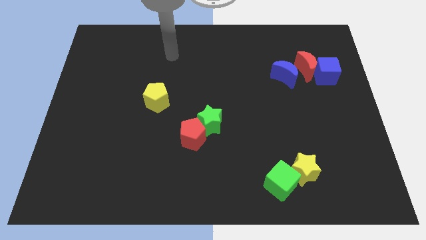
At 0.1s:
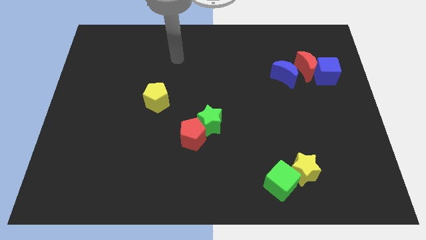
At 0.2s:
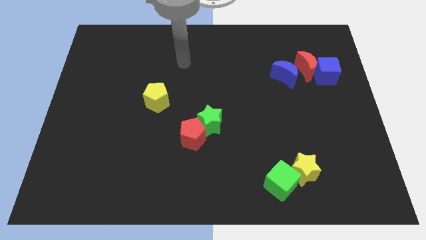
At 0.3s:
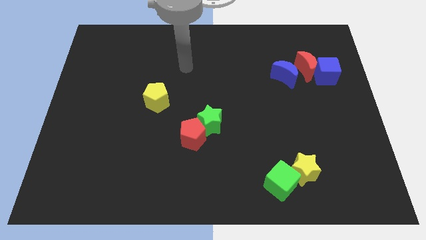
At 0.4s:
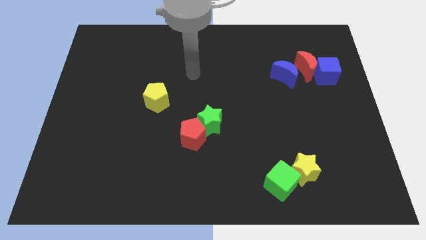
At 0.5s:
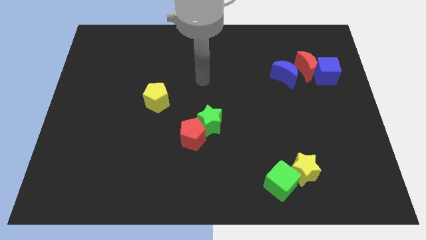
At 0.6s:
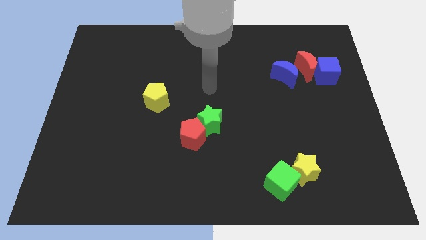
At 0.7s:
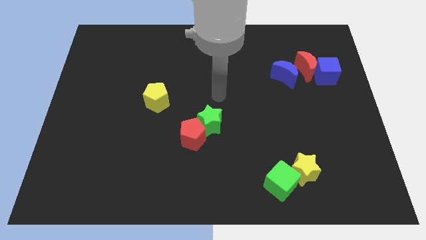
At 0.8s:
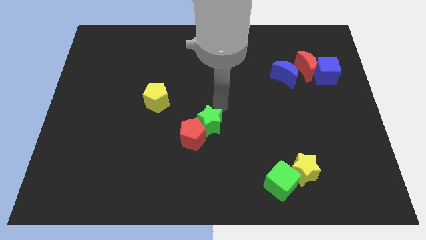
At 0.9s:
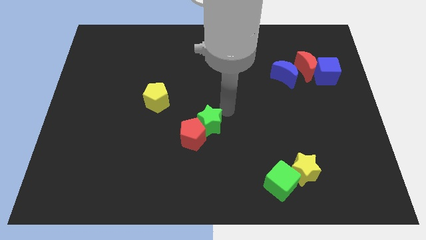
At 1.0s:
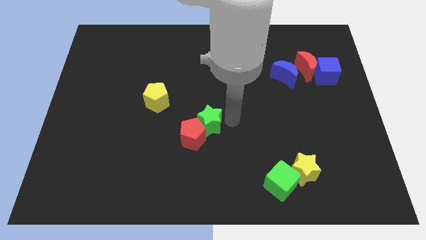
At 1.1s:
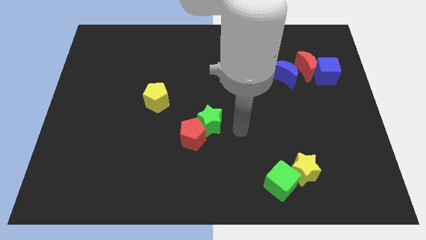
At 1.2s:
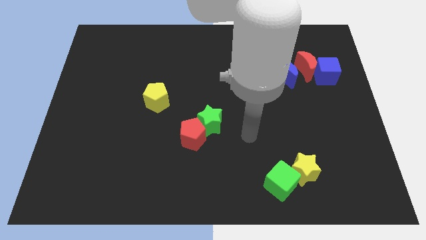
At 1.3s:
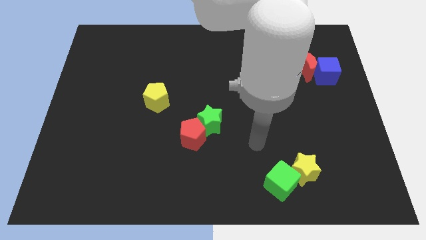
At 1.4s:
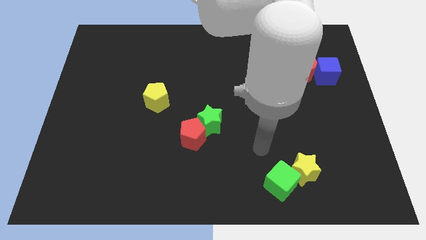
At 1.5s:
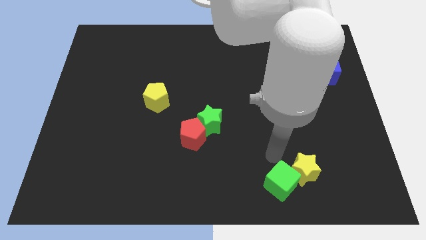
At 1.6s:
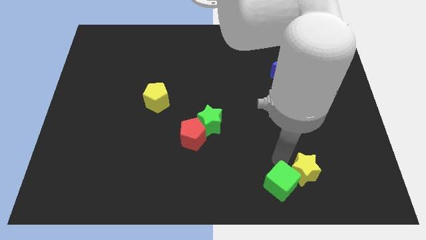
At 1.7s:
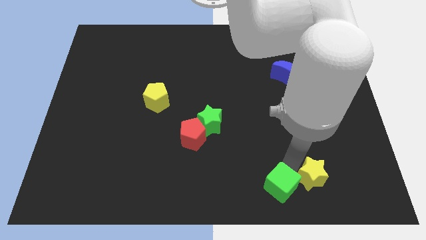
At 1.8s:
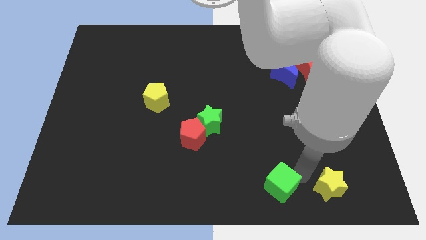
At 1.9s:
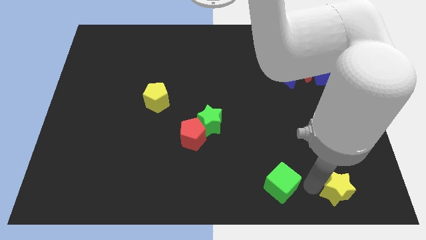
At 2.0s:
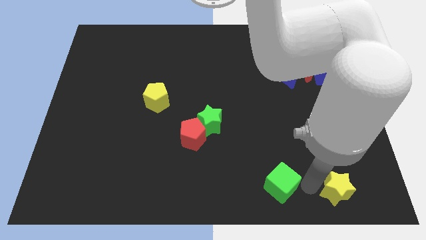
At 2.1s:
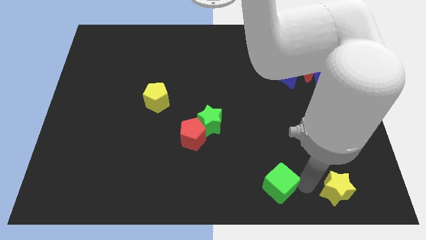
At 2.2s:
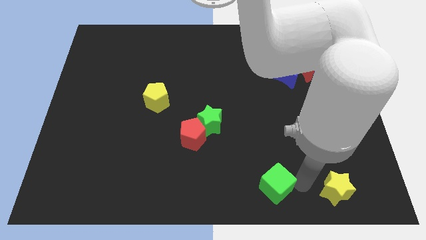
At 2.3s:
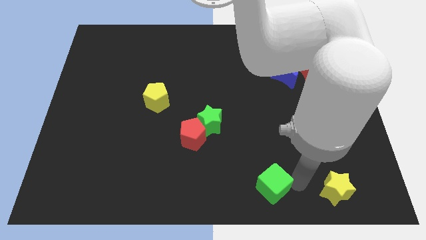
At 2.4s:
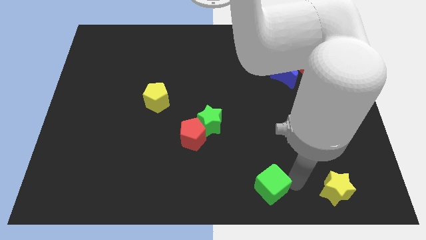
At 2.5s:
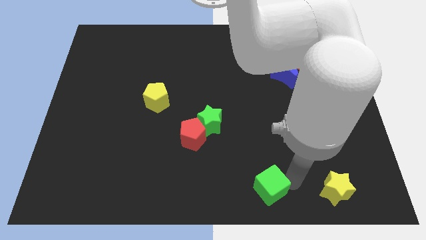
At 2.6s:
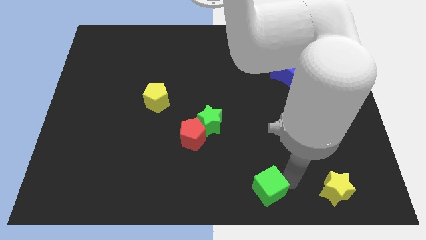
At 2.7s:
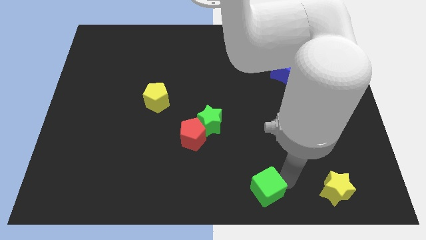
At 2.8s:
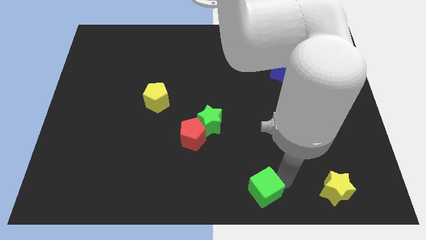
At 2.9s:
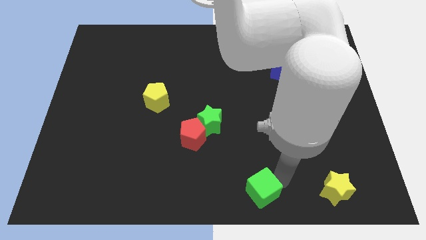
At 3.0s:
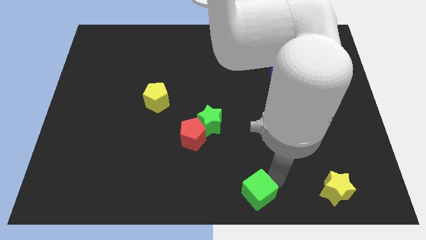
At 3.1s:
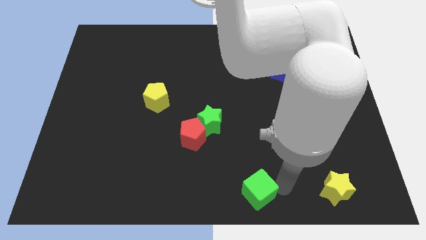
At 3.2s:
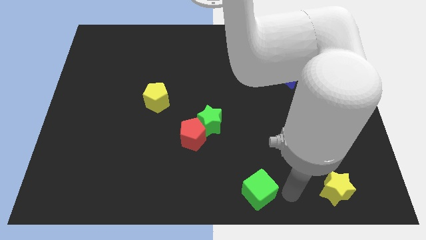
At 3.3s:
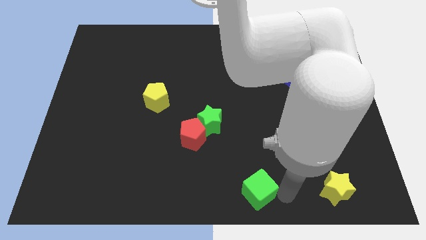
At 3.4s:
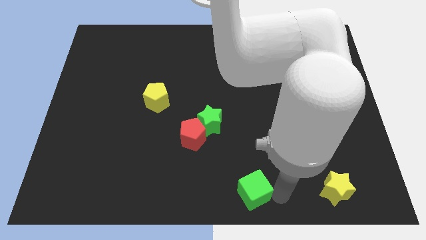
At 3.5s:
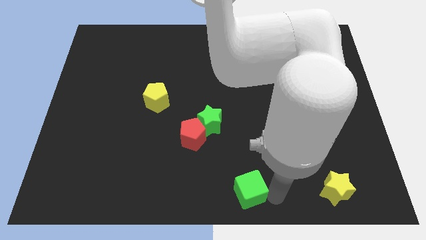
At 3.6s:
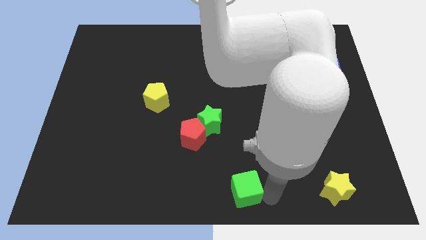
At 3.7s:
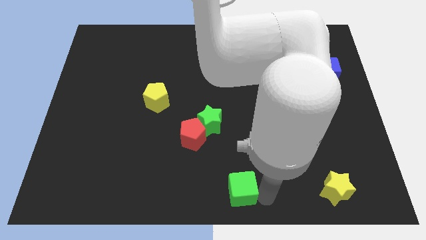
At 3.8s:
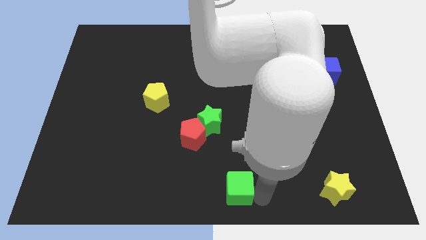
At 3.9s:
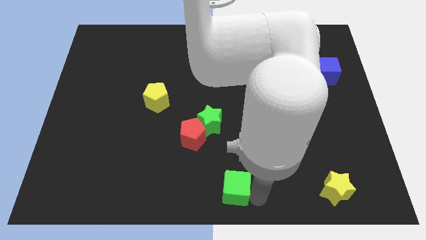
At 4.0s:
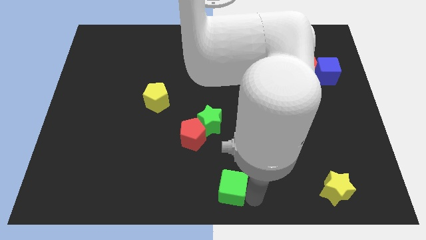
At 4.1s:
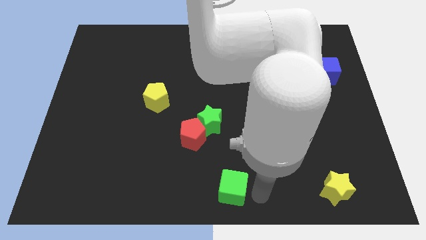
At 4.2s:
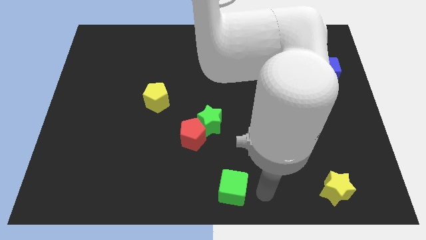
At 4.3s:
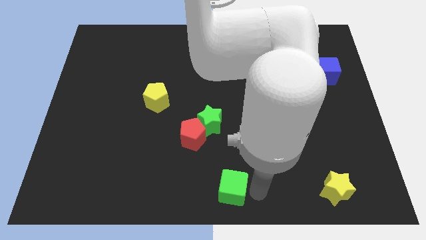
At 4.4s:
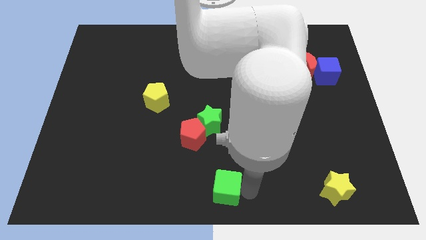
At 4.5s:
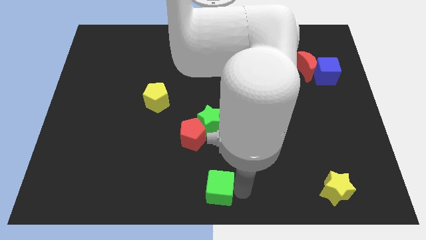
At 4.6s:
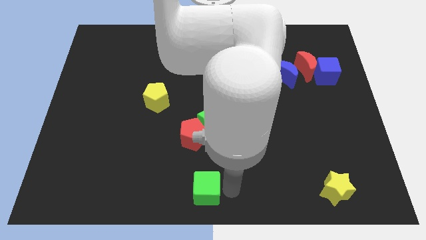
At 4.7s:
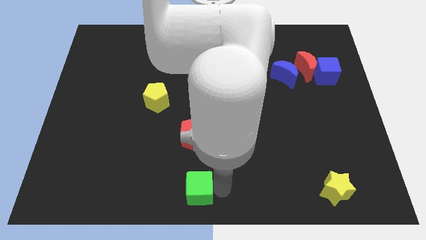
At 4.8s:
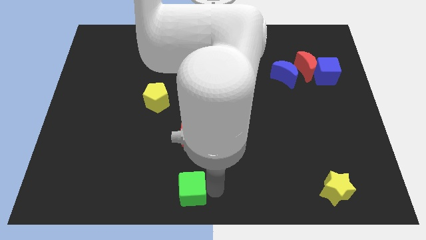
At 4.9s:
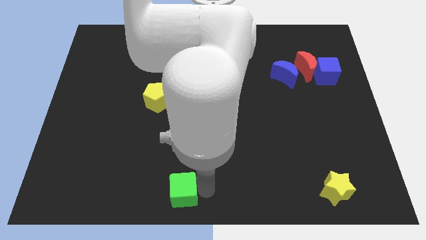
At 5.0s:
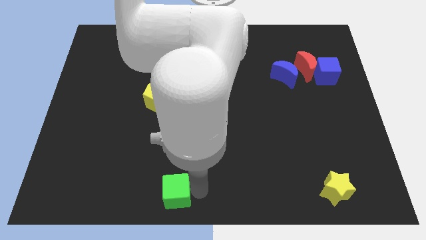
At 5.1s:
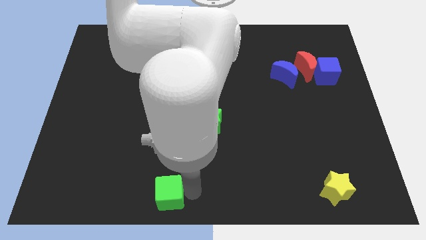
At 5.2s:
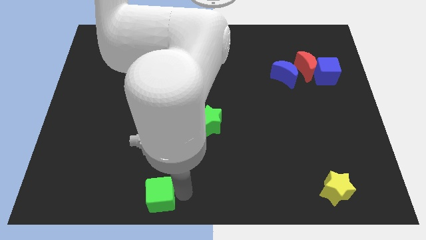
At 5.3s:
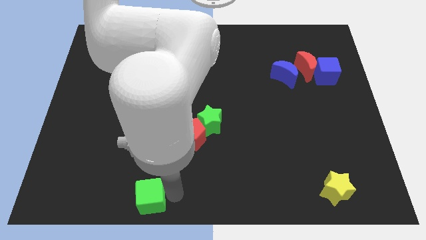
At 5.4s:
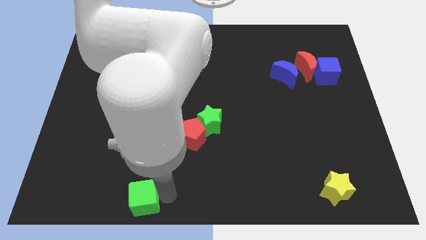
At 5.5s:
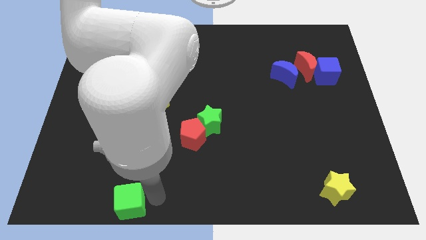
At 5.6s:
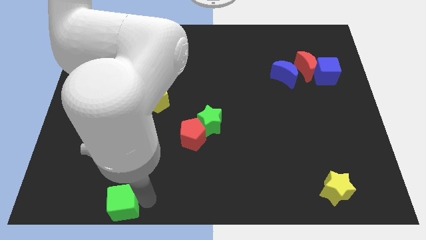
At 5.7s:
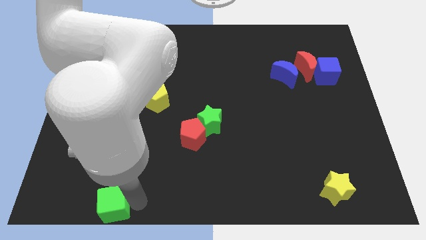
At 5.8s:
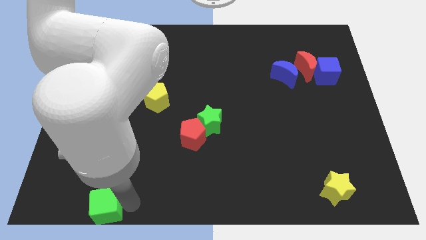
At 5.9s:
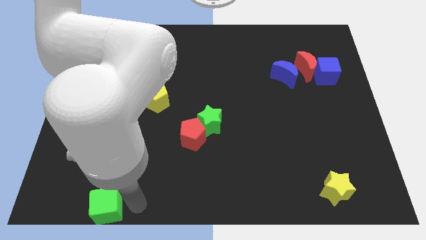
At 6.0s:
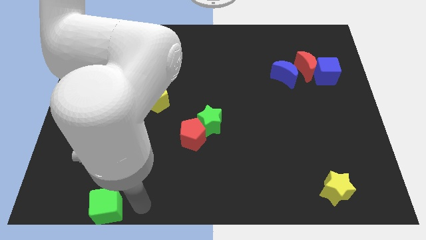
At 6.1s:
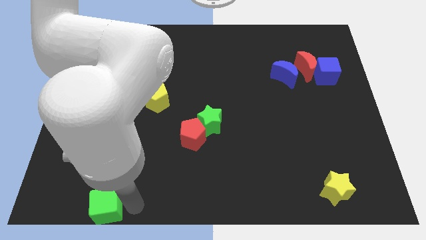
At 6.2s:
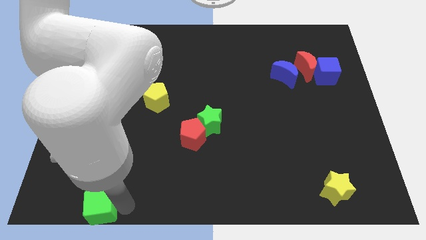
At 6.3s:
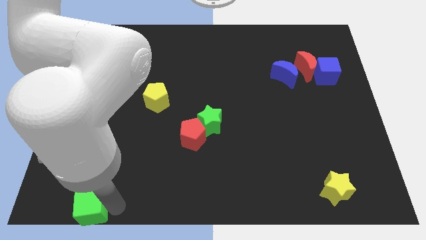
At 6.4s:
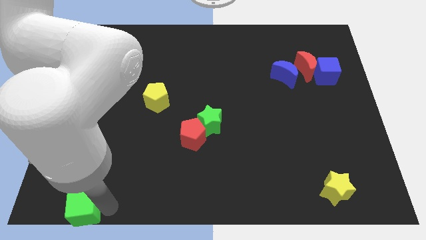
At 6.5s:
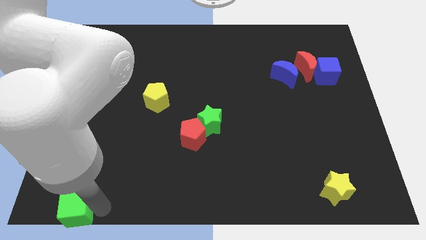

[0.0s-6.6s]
slide the green cube to the bottom left of the board
